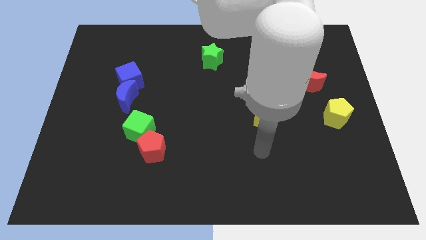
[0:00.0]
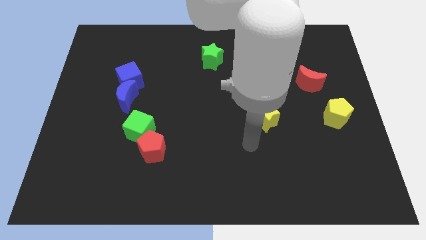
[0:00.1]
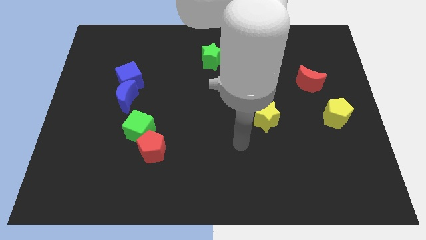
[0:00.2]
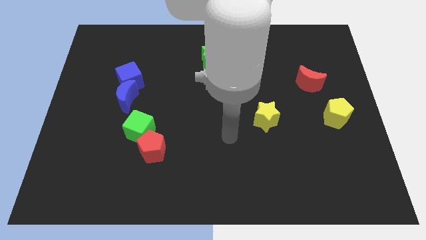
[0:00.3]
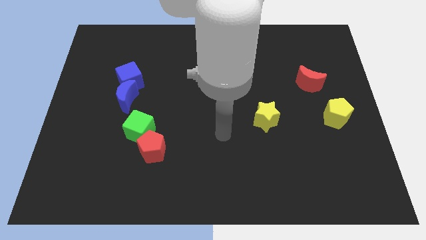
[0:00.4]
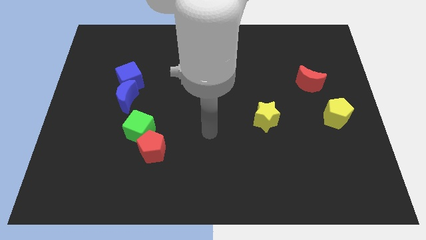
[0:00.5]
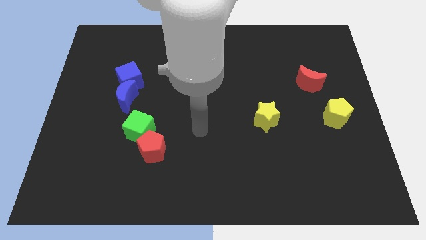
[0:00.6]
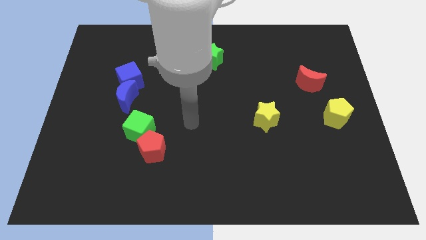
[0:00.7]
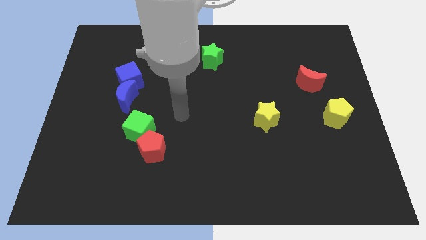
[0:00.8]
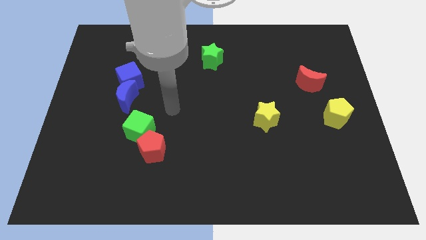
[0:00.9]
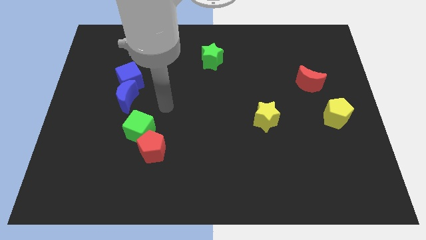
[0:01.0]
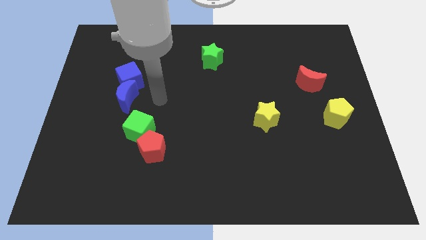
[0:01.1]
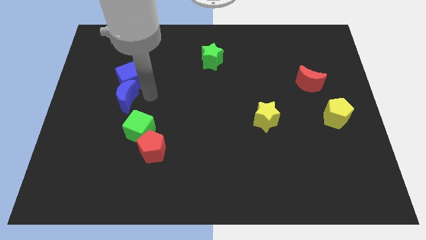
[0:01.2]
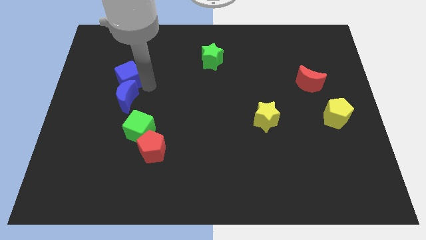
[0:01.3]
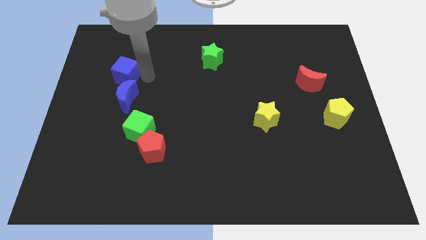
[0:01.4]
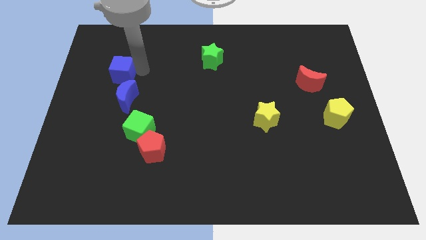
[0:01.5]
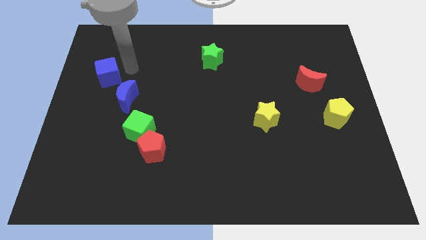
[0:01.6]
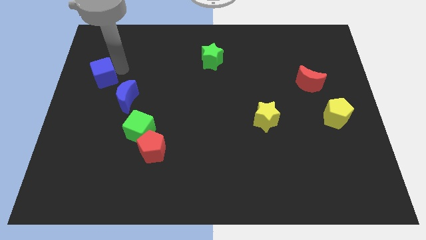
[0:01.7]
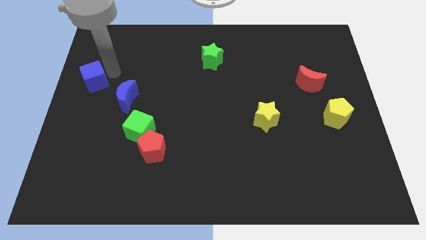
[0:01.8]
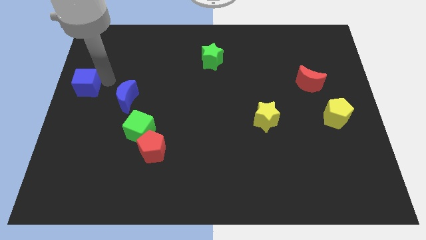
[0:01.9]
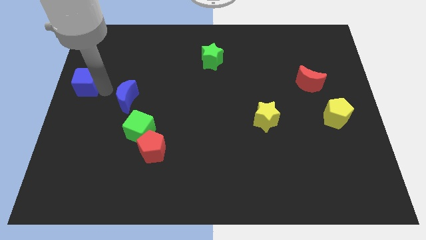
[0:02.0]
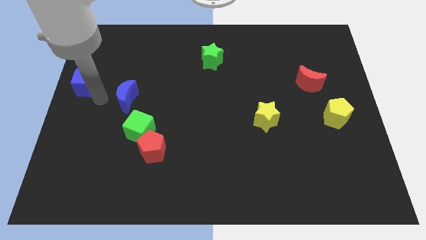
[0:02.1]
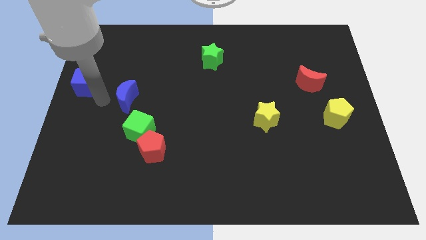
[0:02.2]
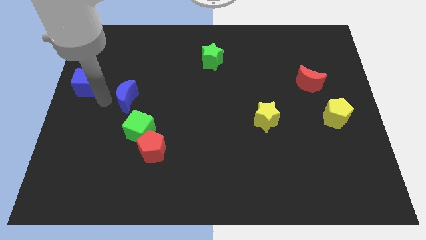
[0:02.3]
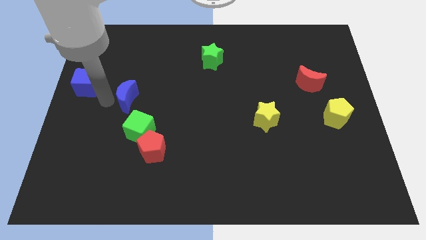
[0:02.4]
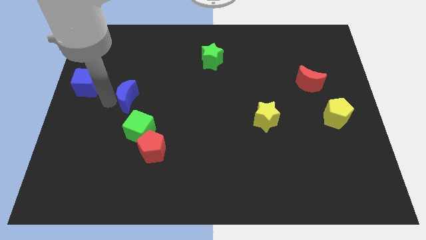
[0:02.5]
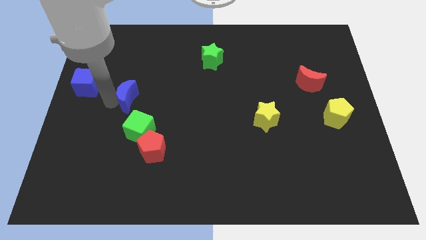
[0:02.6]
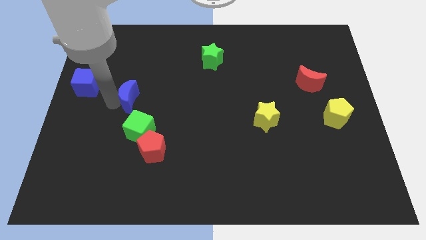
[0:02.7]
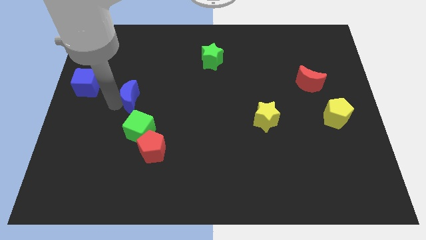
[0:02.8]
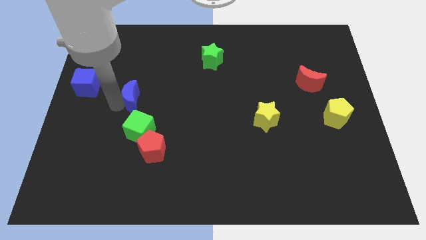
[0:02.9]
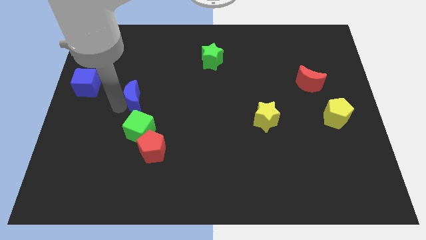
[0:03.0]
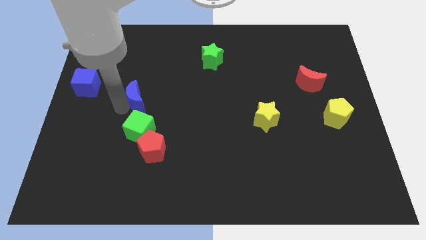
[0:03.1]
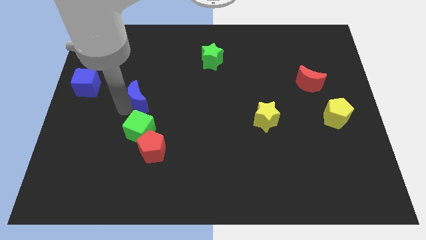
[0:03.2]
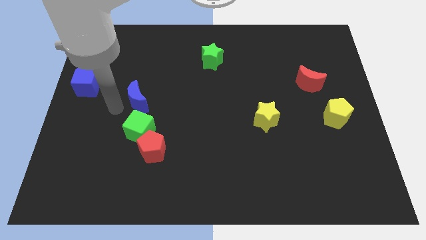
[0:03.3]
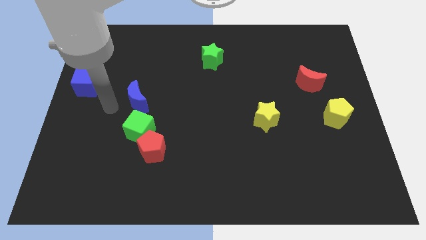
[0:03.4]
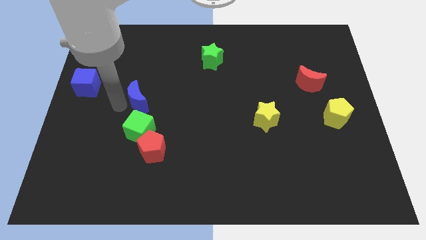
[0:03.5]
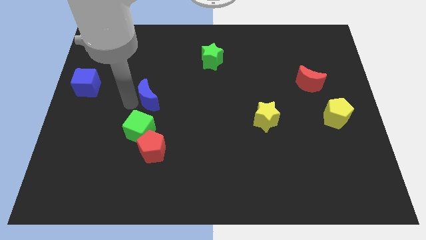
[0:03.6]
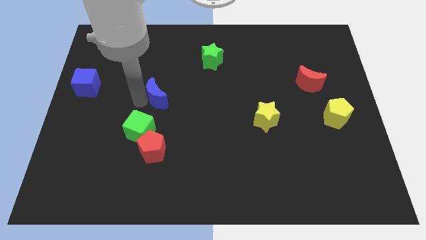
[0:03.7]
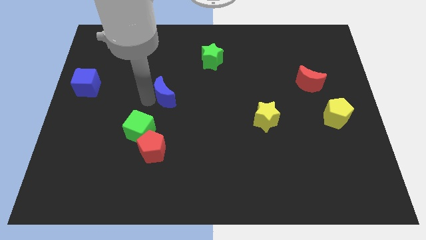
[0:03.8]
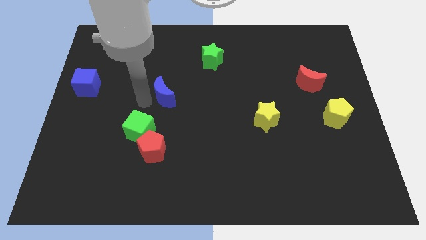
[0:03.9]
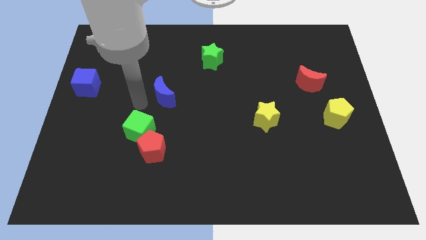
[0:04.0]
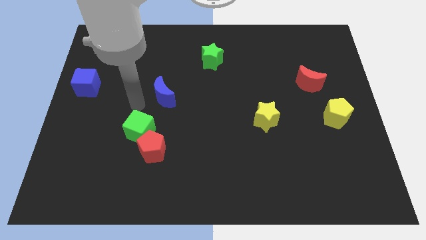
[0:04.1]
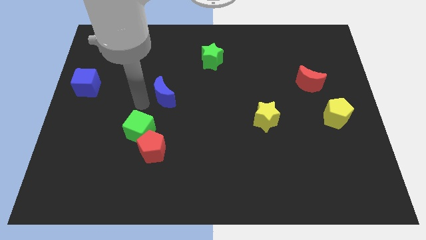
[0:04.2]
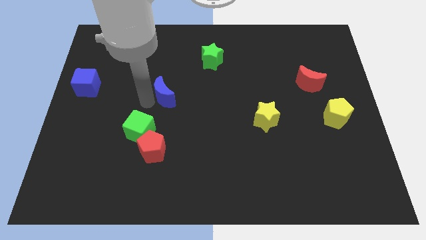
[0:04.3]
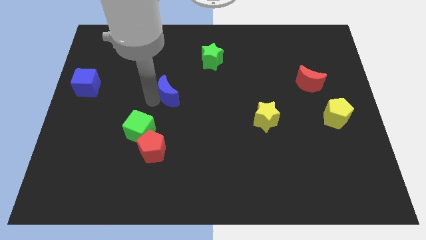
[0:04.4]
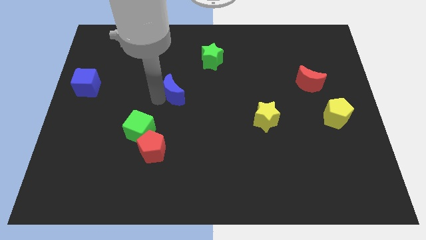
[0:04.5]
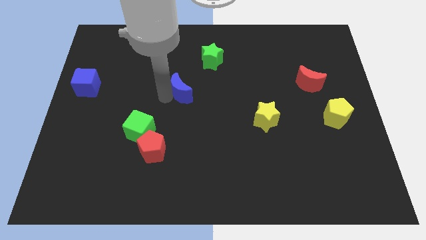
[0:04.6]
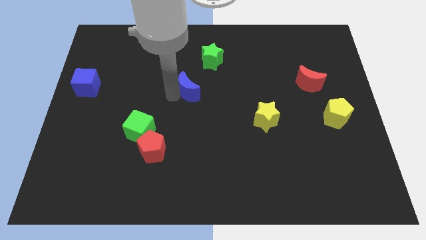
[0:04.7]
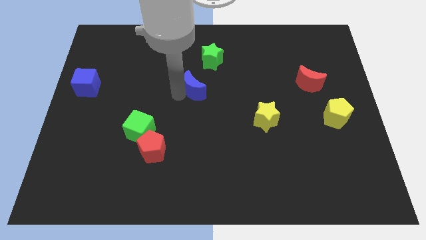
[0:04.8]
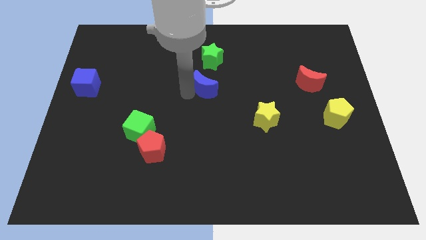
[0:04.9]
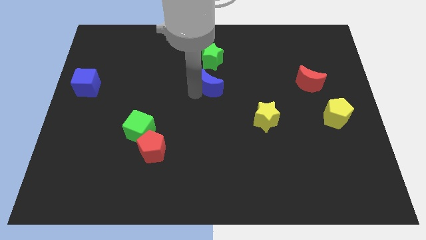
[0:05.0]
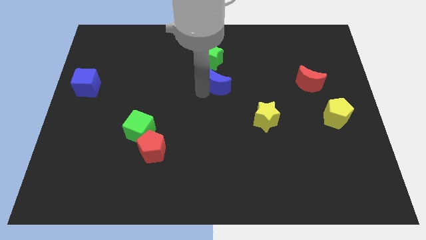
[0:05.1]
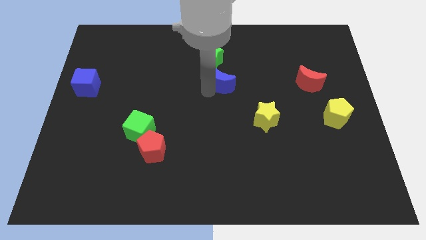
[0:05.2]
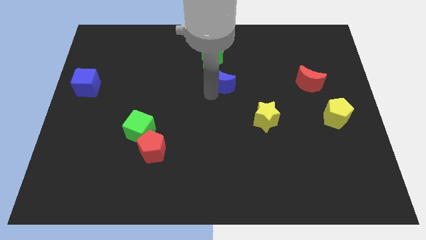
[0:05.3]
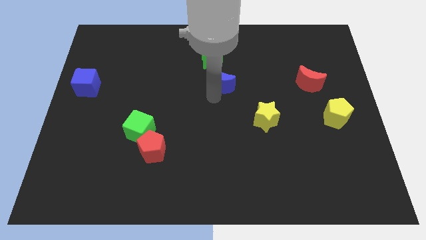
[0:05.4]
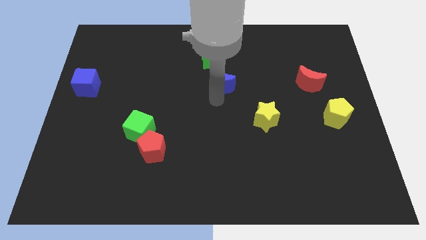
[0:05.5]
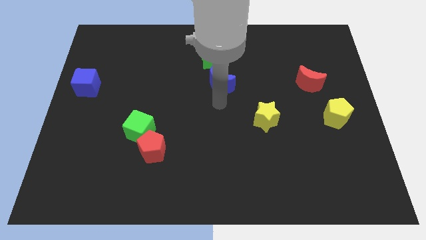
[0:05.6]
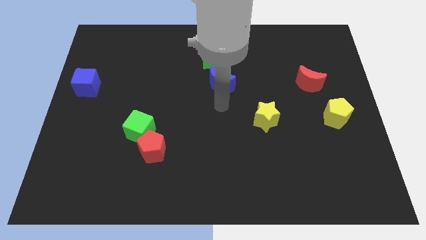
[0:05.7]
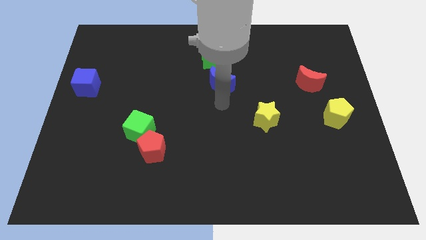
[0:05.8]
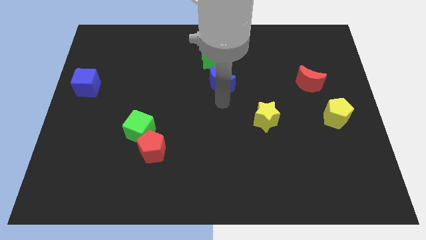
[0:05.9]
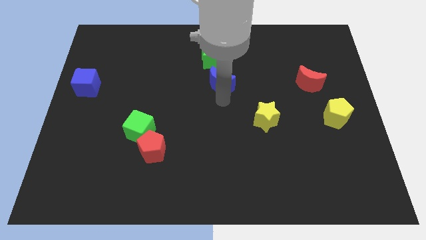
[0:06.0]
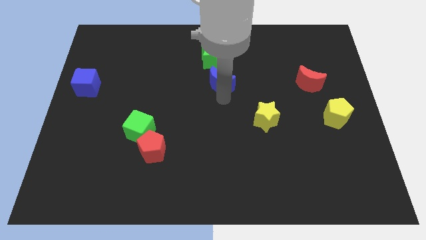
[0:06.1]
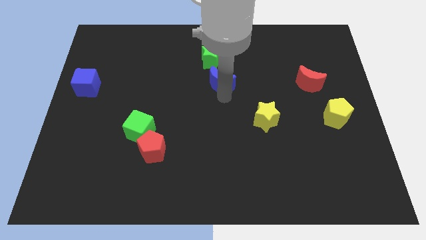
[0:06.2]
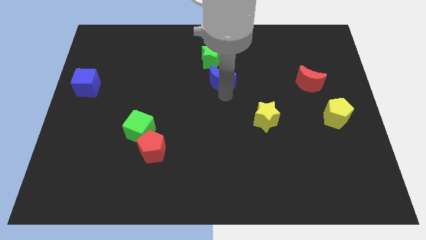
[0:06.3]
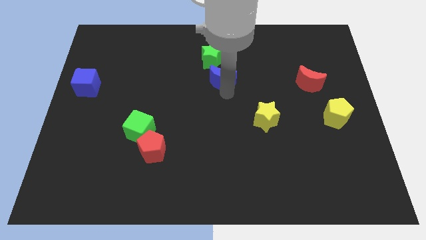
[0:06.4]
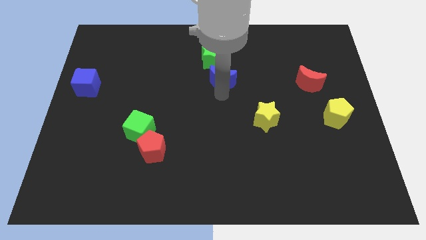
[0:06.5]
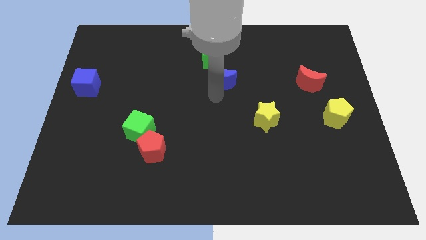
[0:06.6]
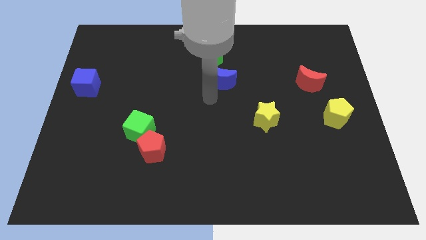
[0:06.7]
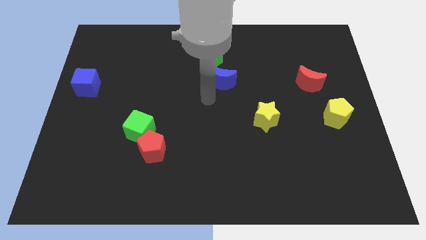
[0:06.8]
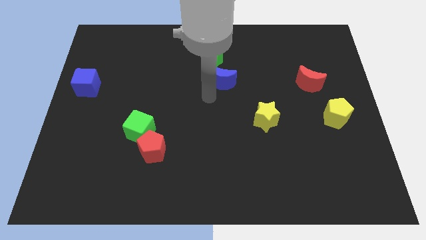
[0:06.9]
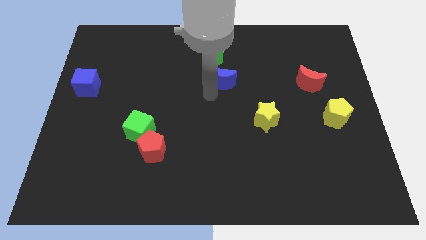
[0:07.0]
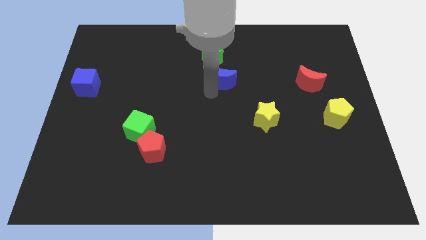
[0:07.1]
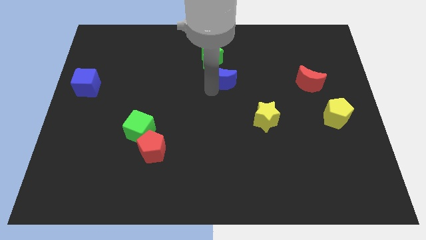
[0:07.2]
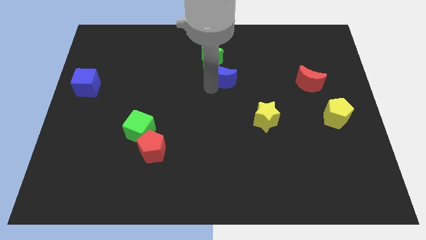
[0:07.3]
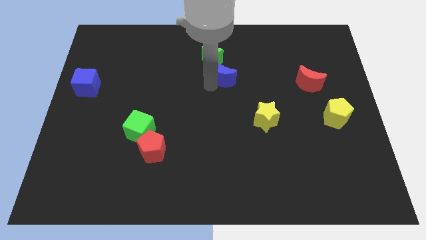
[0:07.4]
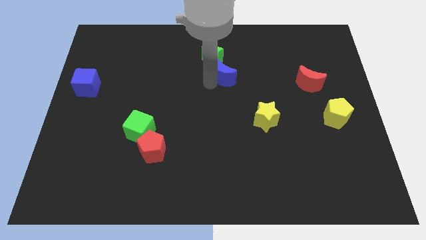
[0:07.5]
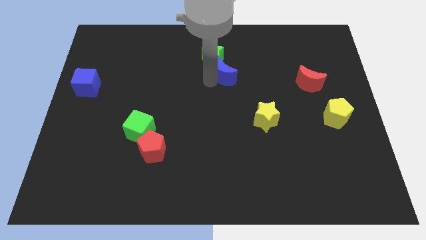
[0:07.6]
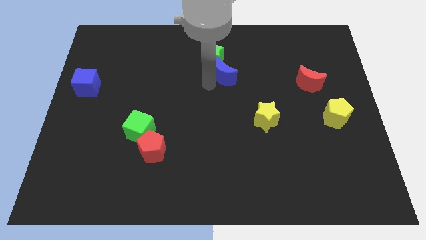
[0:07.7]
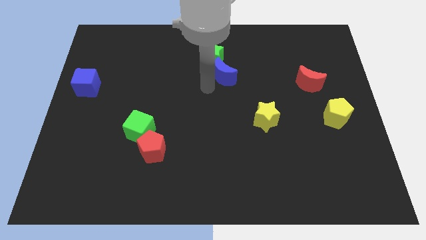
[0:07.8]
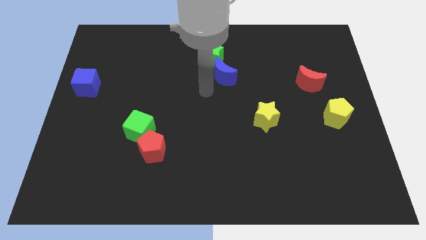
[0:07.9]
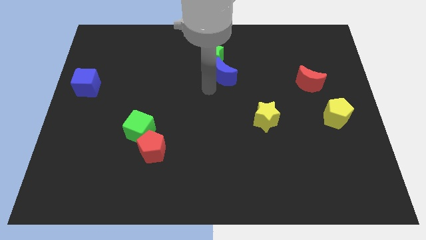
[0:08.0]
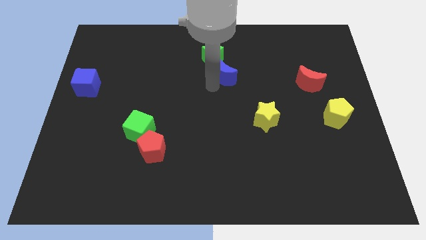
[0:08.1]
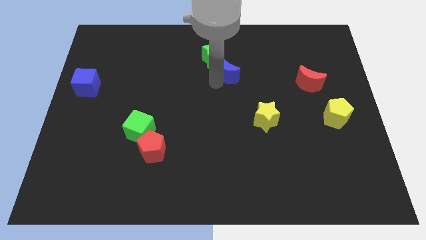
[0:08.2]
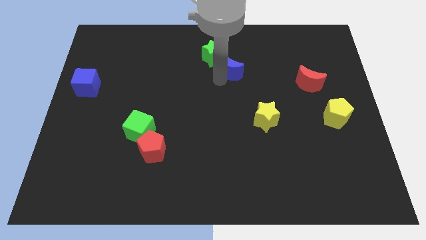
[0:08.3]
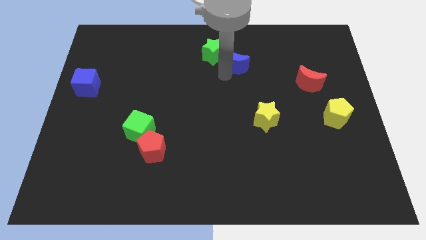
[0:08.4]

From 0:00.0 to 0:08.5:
slide the blue moon right of the green star
